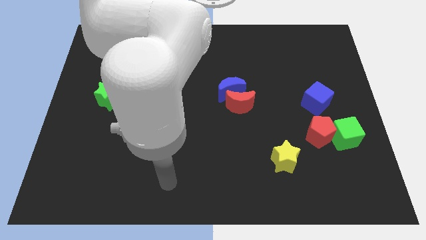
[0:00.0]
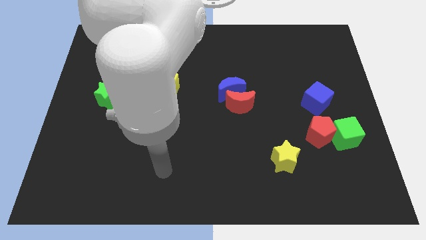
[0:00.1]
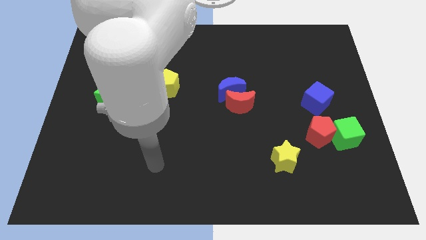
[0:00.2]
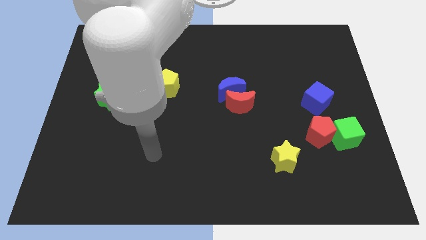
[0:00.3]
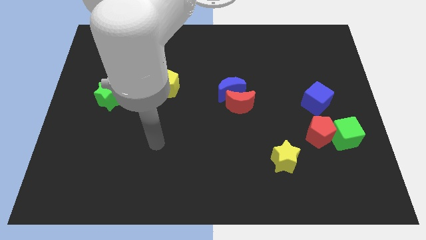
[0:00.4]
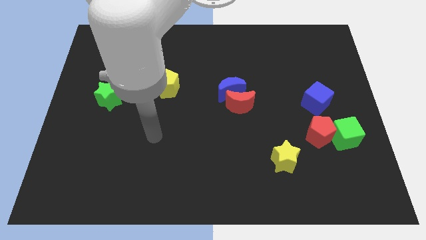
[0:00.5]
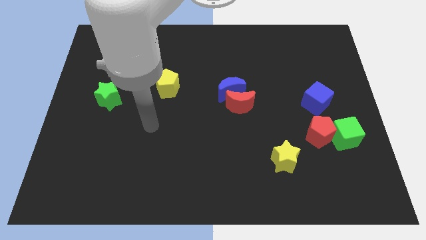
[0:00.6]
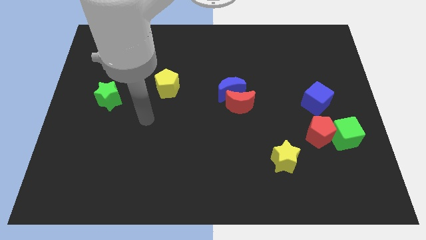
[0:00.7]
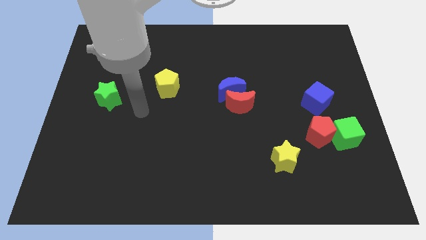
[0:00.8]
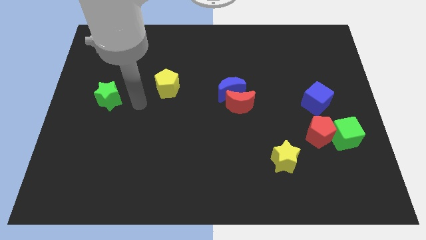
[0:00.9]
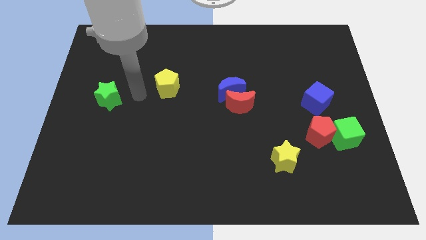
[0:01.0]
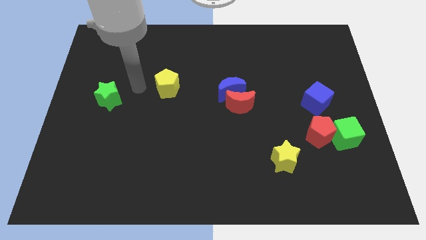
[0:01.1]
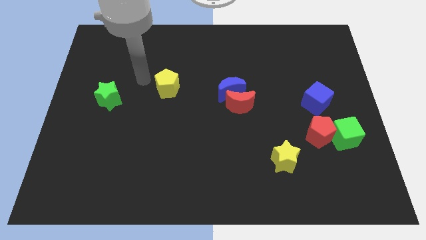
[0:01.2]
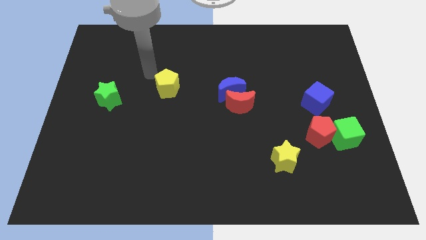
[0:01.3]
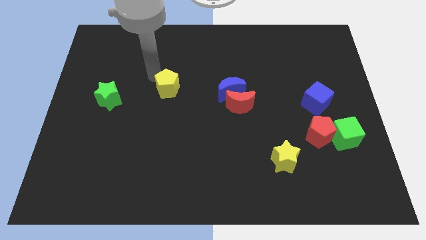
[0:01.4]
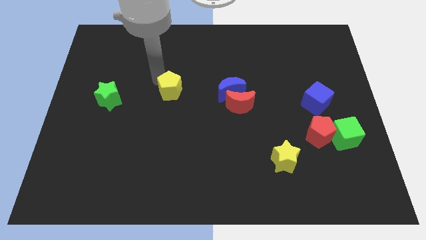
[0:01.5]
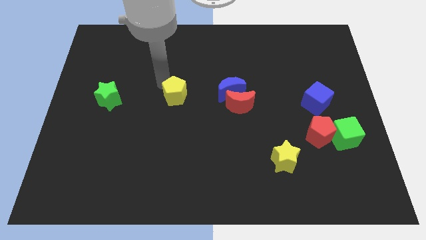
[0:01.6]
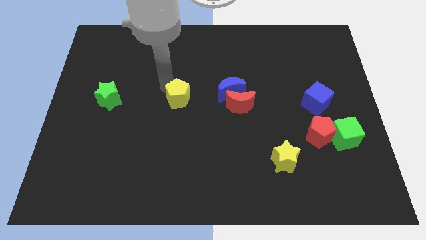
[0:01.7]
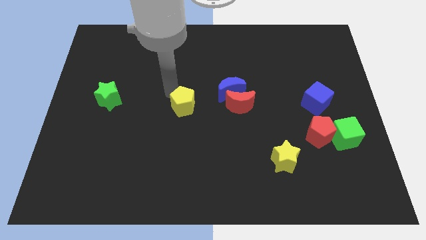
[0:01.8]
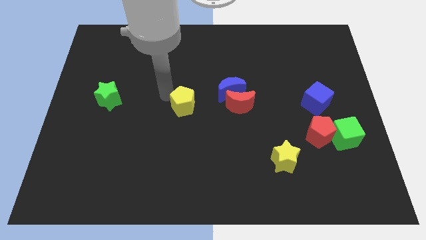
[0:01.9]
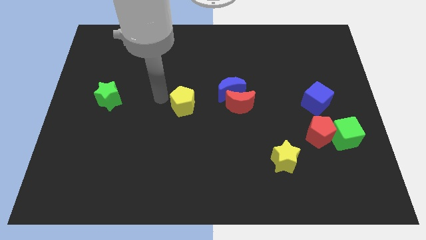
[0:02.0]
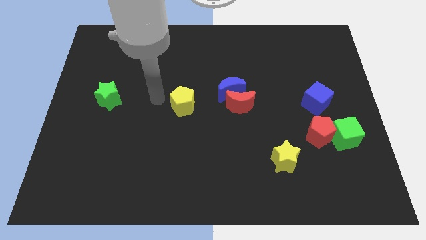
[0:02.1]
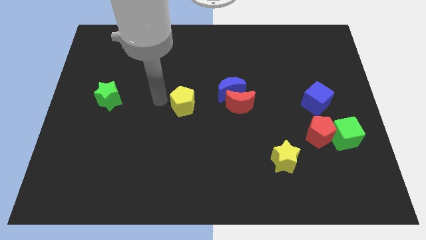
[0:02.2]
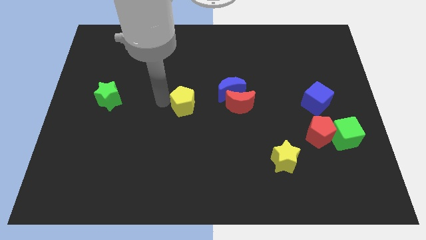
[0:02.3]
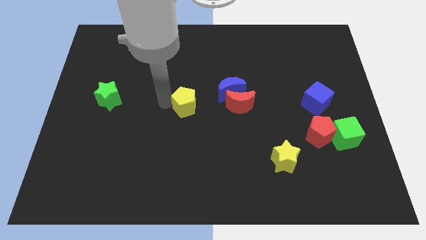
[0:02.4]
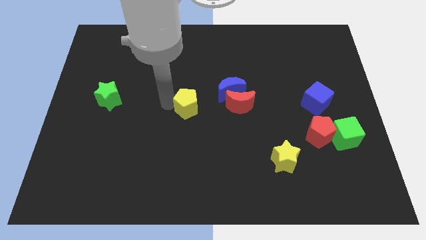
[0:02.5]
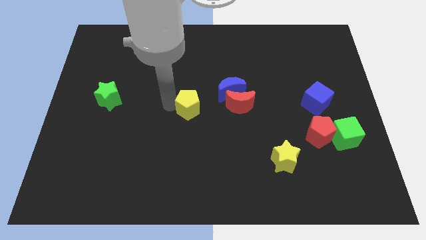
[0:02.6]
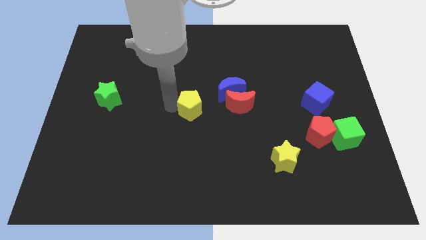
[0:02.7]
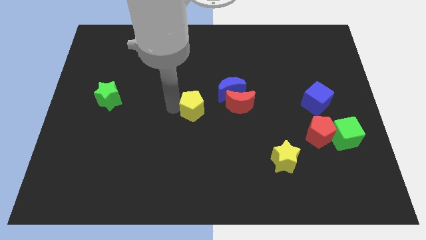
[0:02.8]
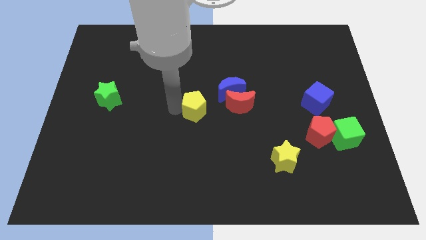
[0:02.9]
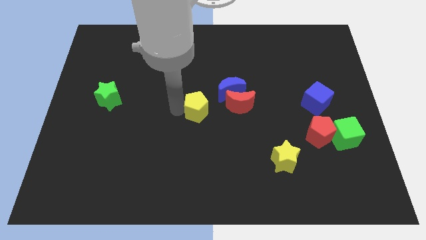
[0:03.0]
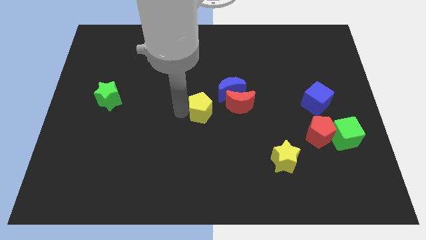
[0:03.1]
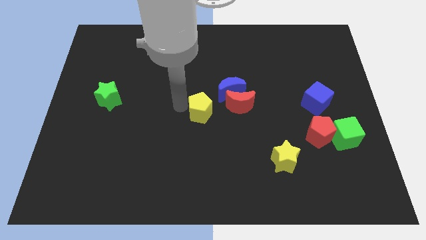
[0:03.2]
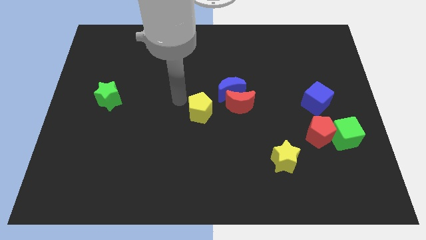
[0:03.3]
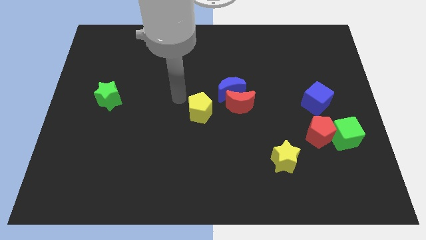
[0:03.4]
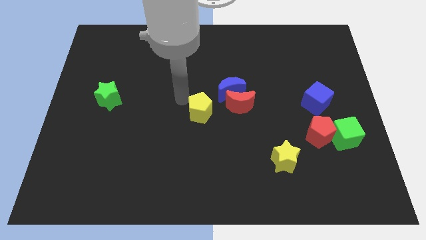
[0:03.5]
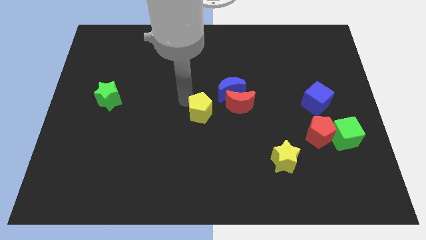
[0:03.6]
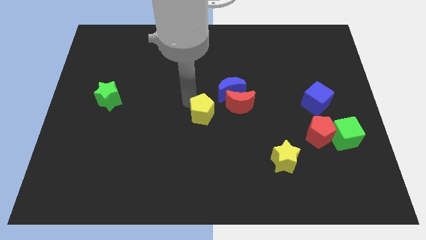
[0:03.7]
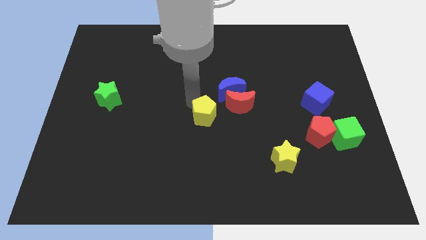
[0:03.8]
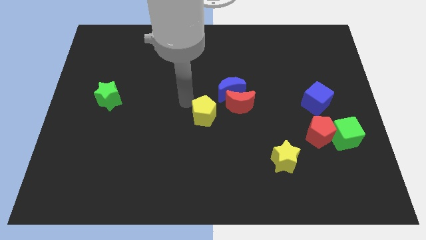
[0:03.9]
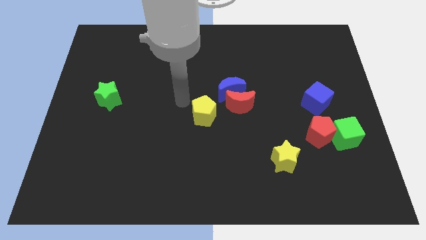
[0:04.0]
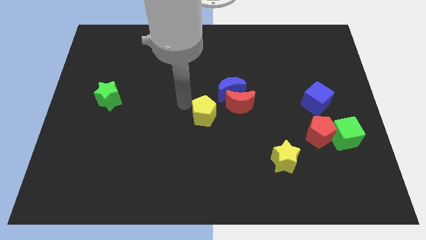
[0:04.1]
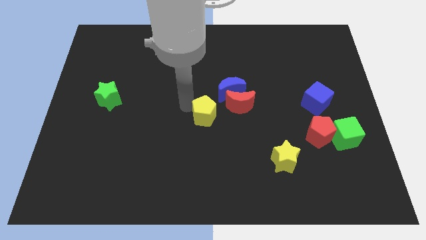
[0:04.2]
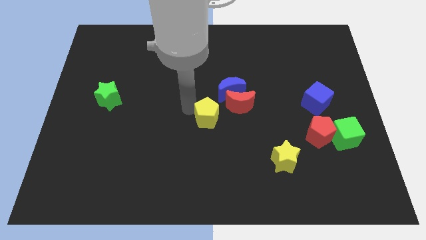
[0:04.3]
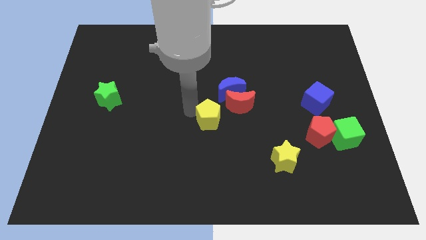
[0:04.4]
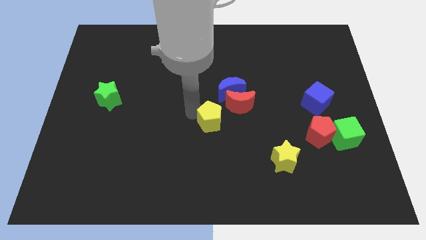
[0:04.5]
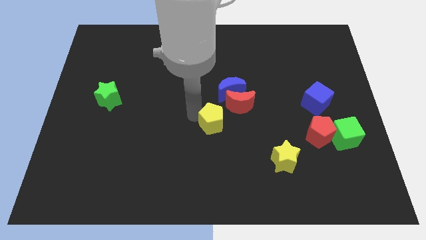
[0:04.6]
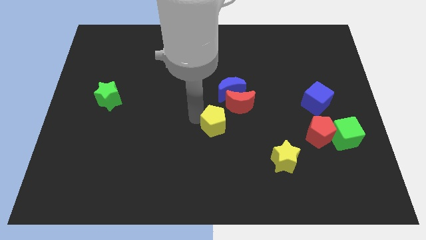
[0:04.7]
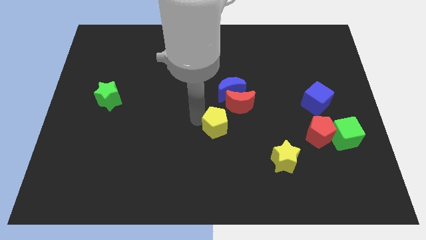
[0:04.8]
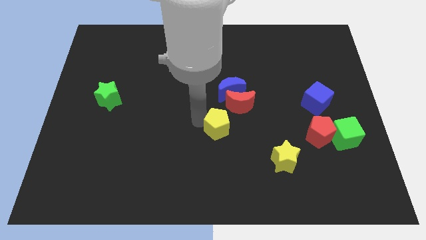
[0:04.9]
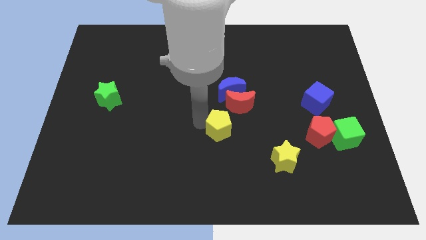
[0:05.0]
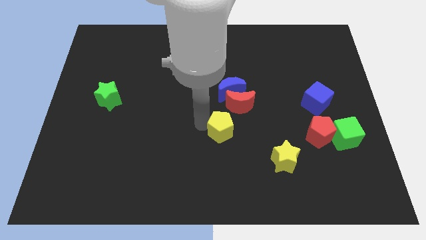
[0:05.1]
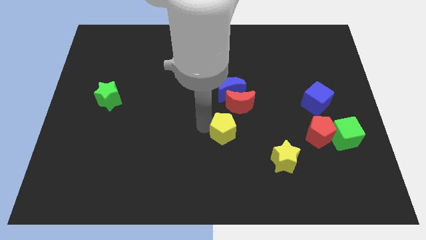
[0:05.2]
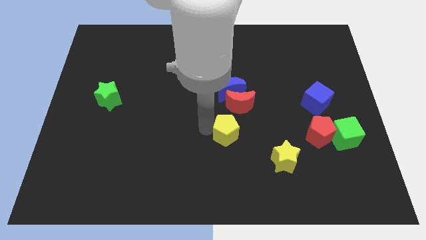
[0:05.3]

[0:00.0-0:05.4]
slide the yellow pentagon downwards and then to the right

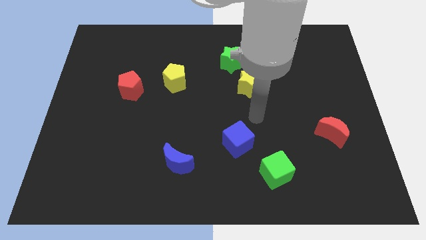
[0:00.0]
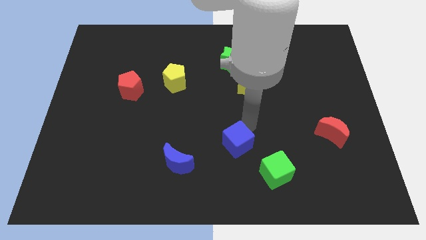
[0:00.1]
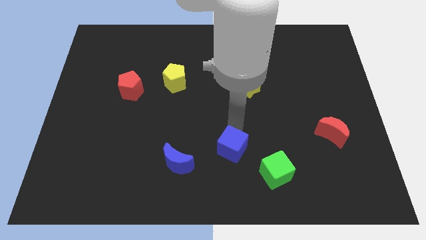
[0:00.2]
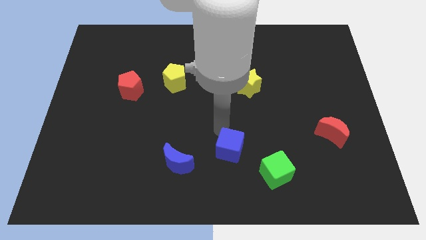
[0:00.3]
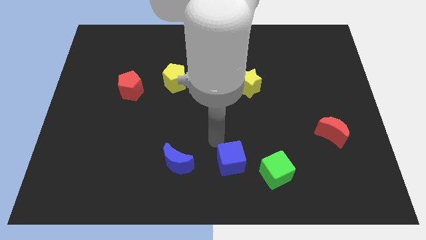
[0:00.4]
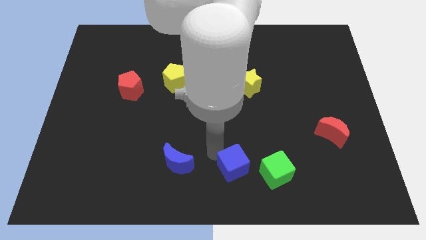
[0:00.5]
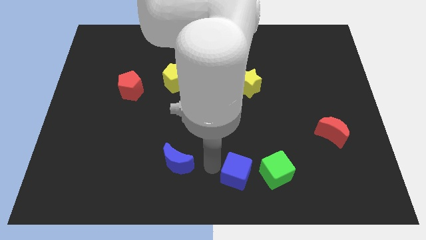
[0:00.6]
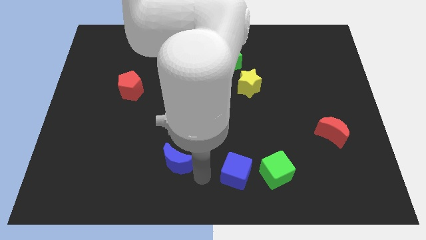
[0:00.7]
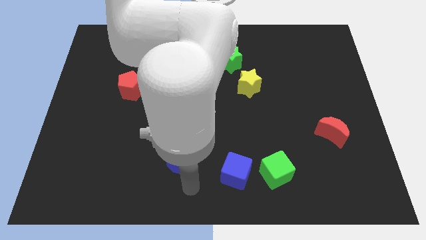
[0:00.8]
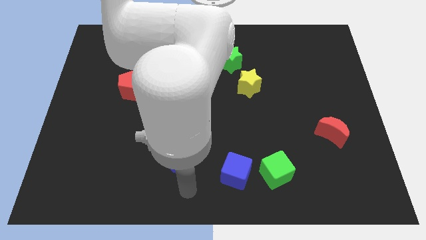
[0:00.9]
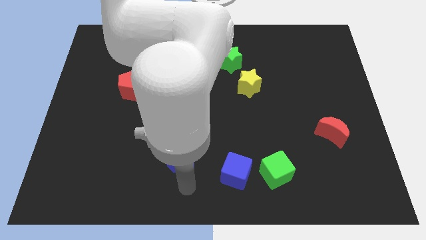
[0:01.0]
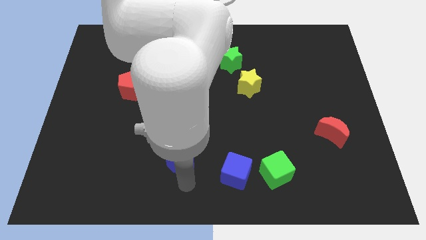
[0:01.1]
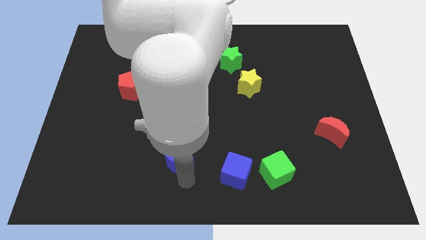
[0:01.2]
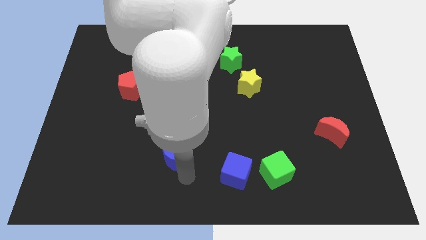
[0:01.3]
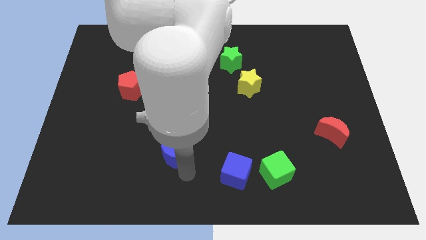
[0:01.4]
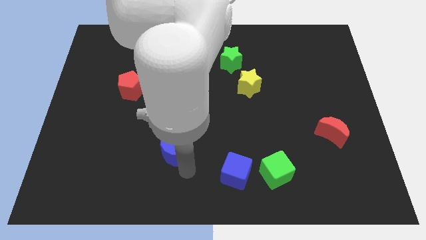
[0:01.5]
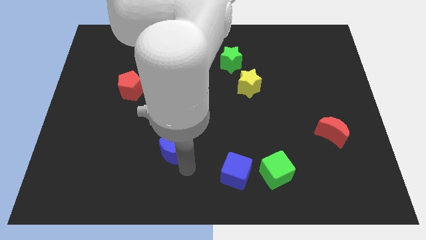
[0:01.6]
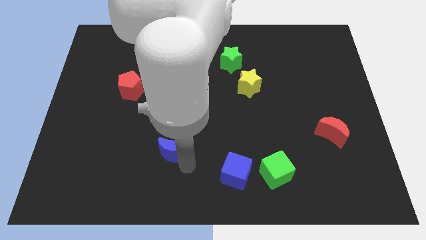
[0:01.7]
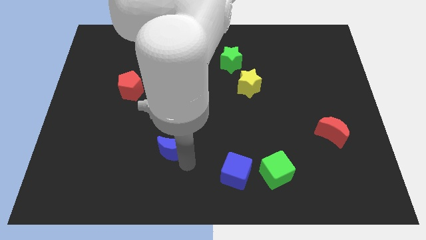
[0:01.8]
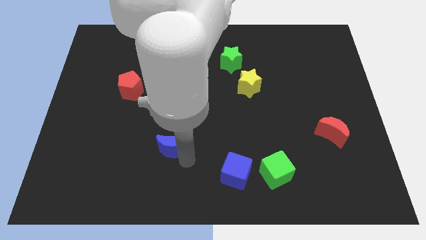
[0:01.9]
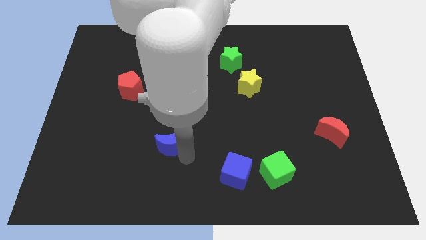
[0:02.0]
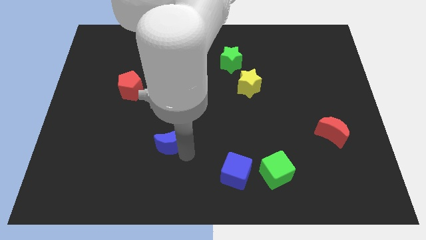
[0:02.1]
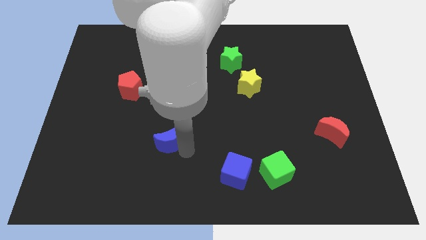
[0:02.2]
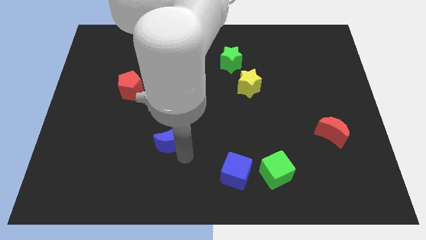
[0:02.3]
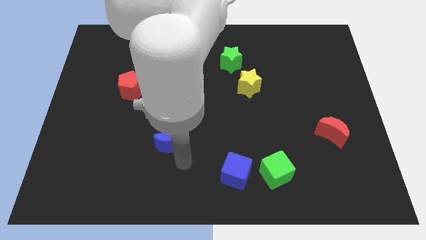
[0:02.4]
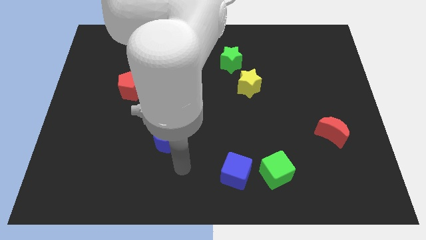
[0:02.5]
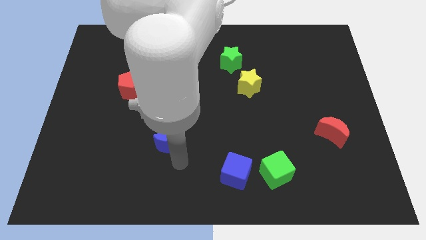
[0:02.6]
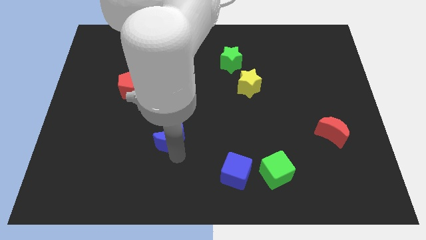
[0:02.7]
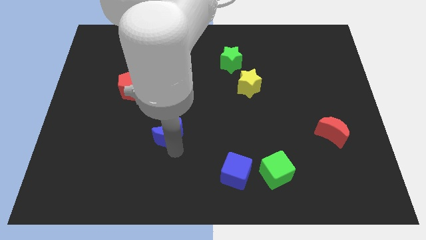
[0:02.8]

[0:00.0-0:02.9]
push the blue moon slightly up
